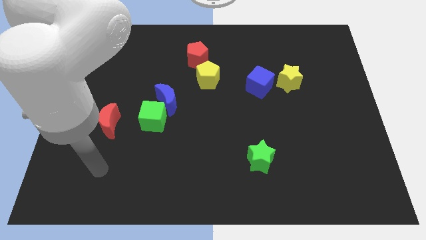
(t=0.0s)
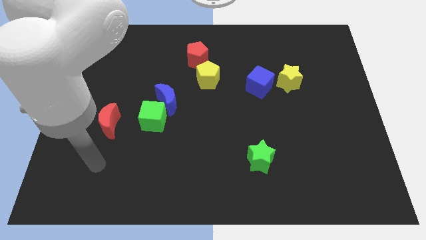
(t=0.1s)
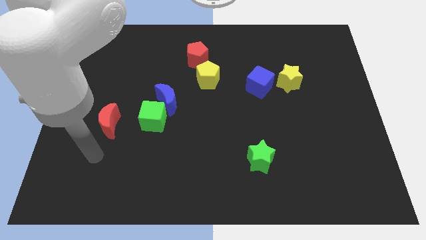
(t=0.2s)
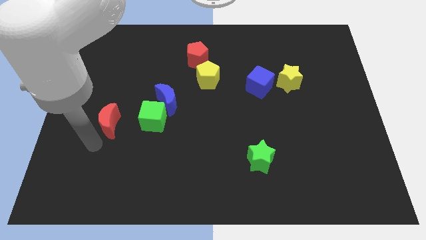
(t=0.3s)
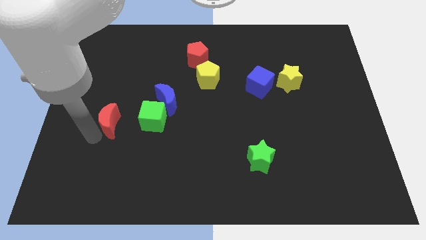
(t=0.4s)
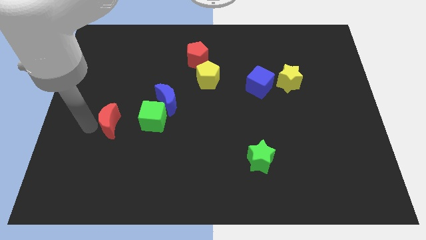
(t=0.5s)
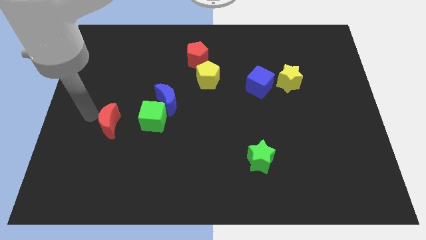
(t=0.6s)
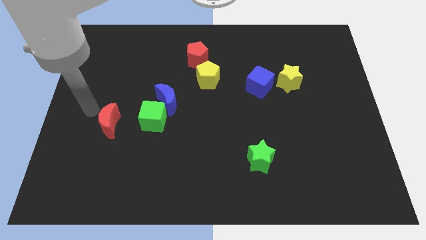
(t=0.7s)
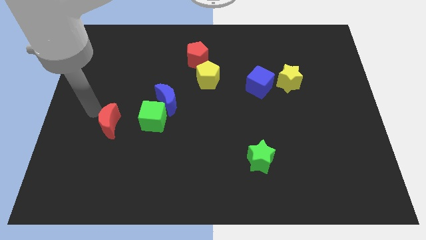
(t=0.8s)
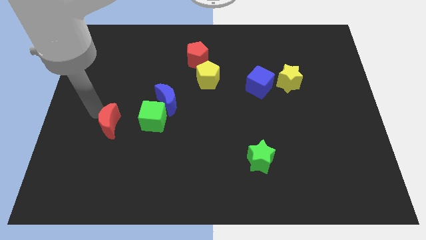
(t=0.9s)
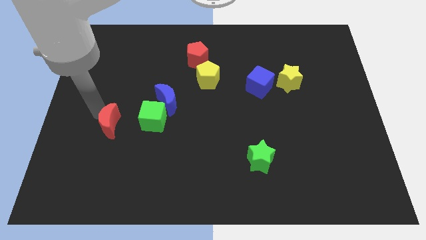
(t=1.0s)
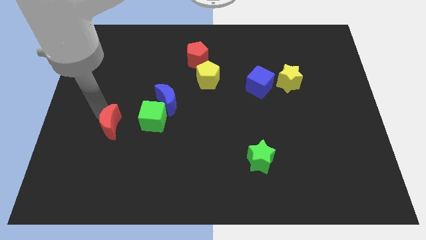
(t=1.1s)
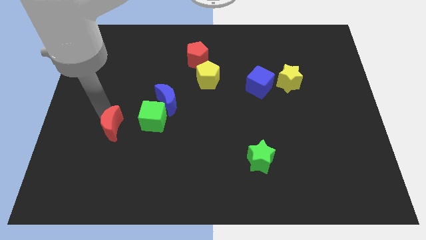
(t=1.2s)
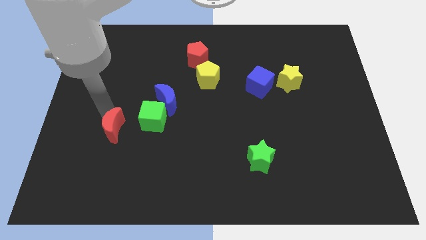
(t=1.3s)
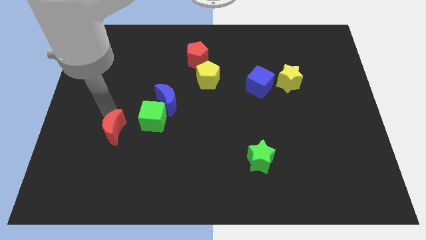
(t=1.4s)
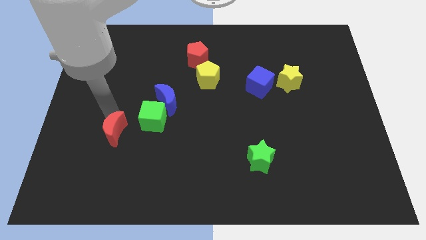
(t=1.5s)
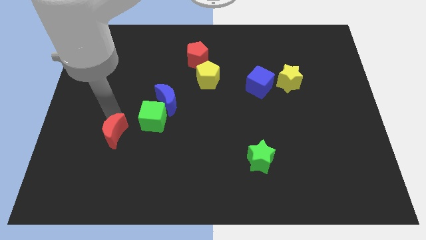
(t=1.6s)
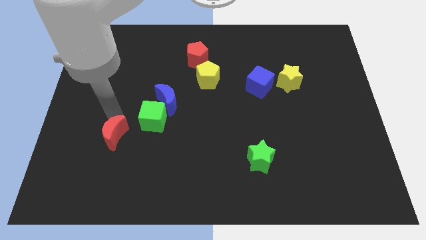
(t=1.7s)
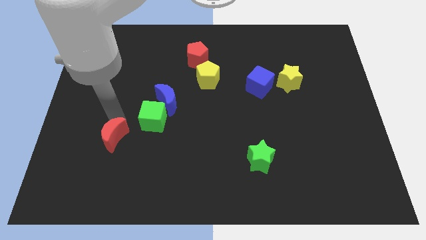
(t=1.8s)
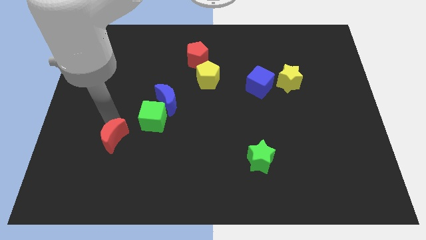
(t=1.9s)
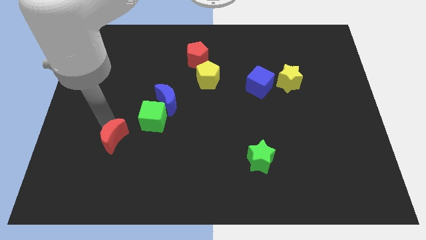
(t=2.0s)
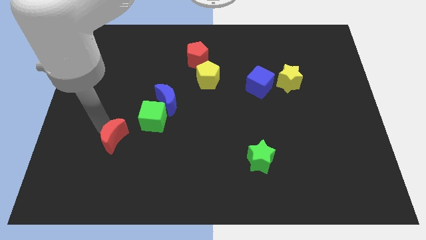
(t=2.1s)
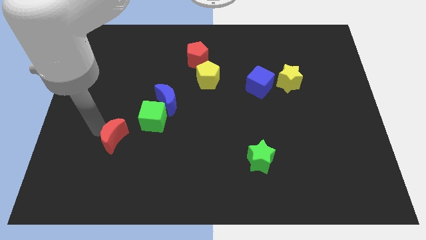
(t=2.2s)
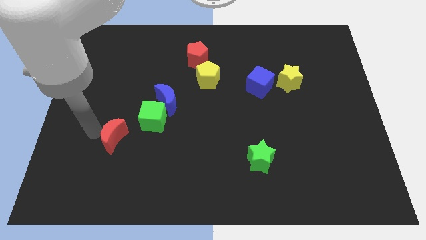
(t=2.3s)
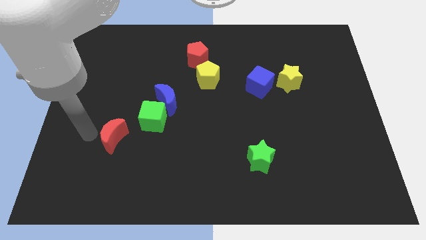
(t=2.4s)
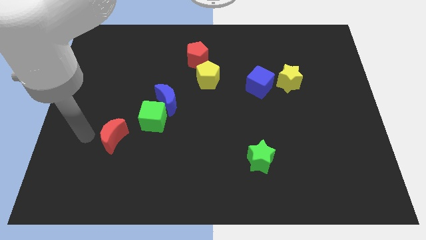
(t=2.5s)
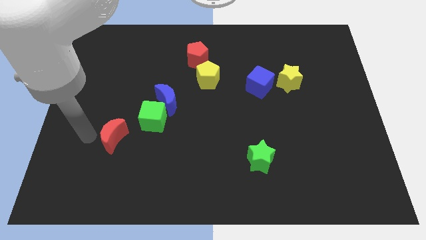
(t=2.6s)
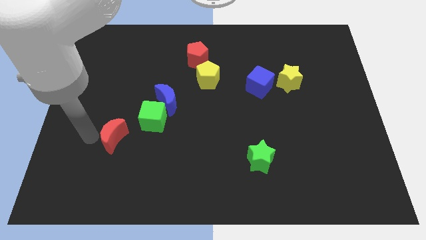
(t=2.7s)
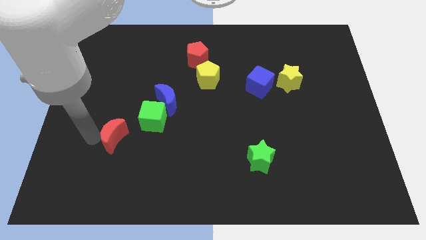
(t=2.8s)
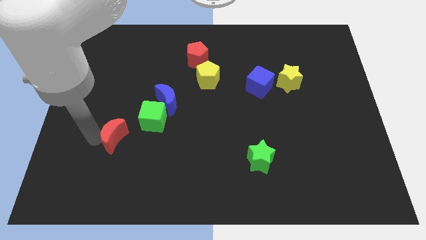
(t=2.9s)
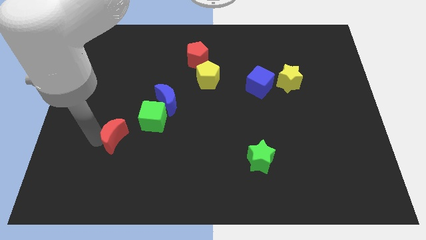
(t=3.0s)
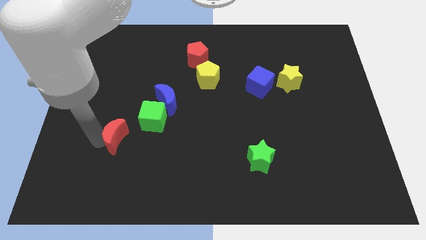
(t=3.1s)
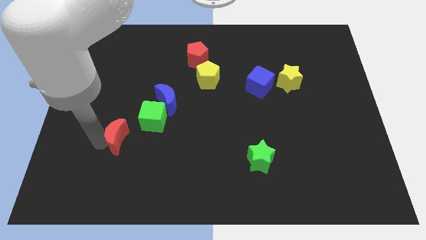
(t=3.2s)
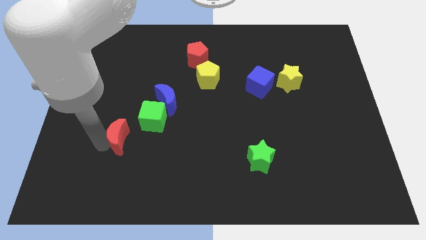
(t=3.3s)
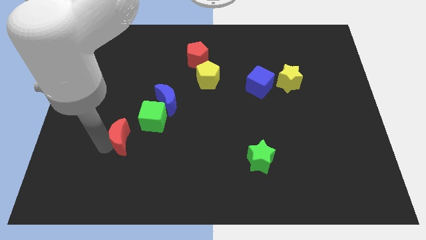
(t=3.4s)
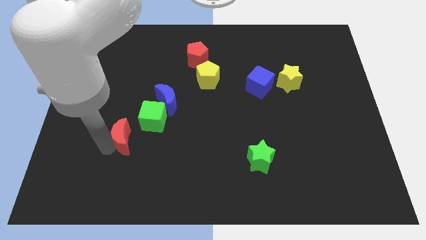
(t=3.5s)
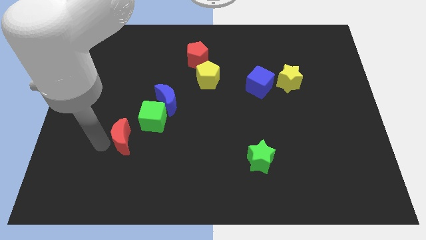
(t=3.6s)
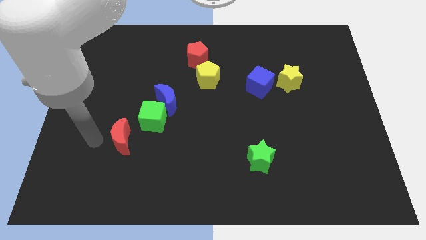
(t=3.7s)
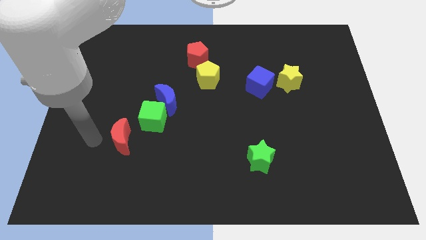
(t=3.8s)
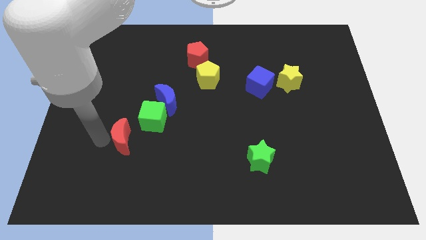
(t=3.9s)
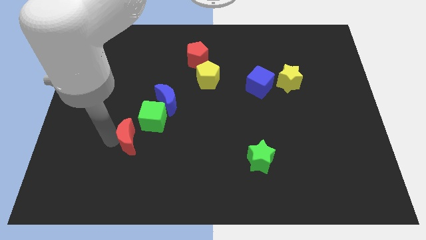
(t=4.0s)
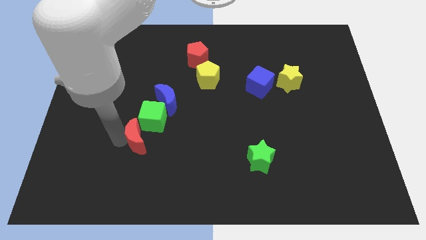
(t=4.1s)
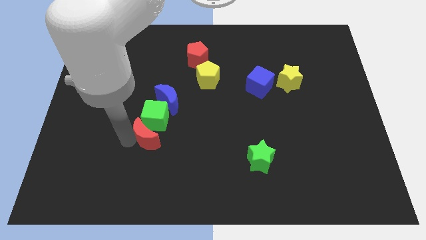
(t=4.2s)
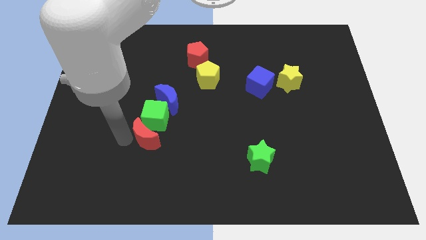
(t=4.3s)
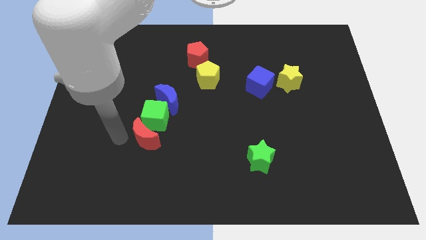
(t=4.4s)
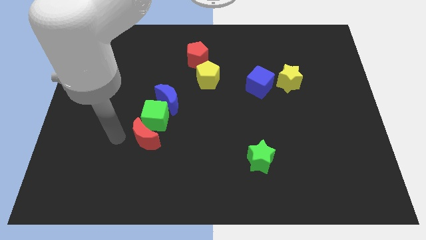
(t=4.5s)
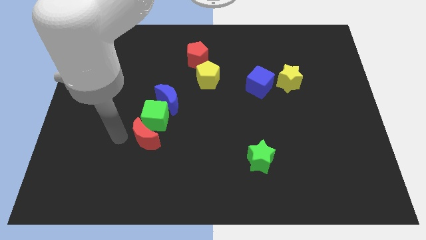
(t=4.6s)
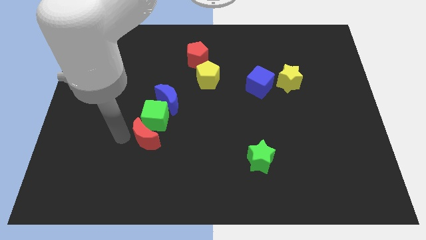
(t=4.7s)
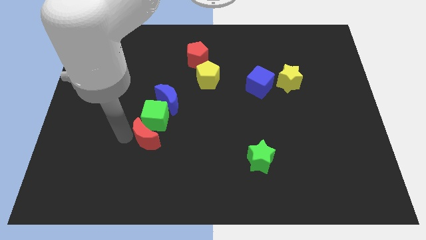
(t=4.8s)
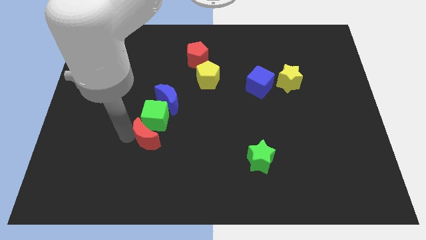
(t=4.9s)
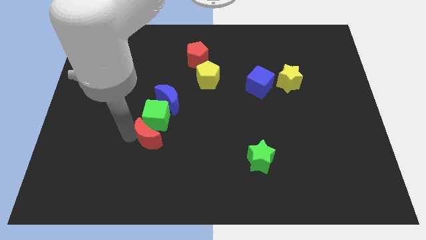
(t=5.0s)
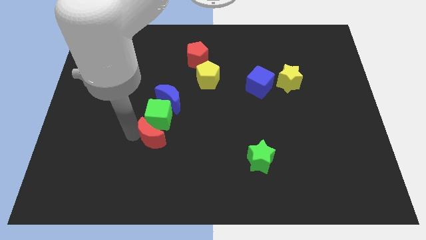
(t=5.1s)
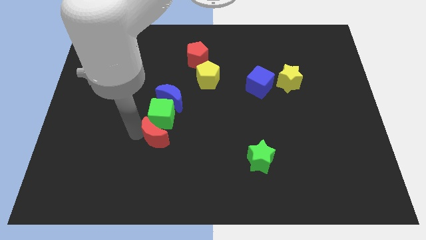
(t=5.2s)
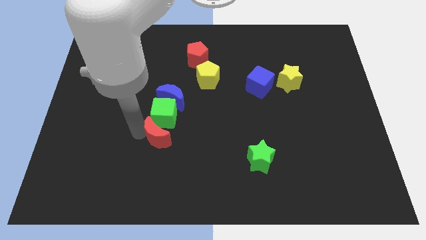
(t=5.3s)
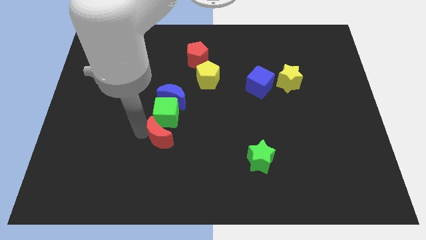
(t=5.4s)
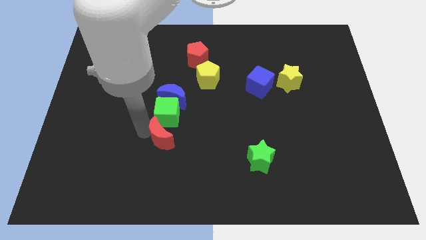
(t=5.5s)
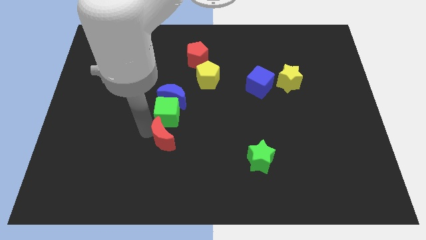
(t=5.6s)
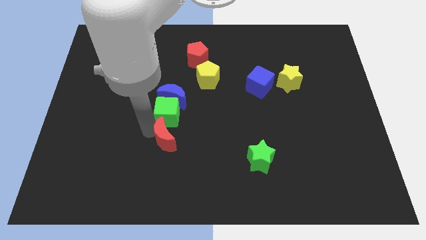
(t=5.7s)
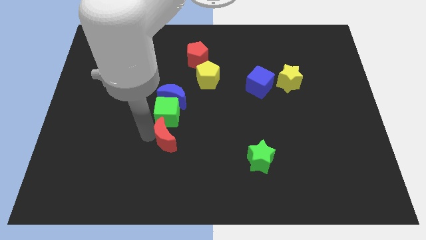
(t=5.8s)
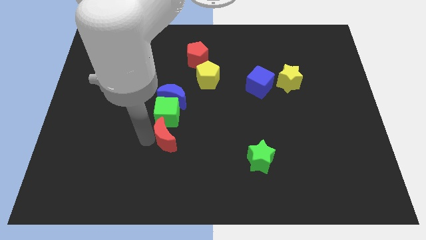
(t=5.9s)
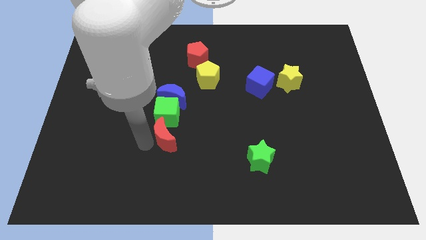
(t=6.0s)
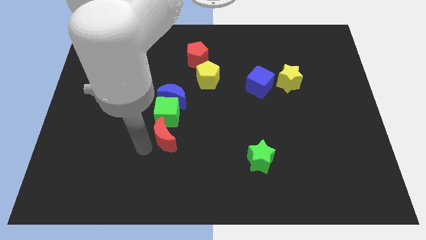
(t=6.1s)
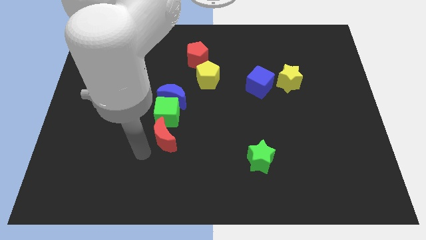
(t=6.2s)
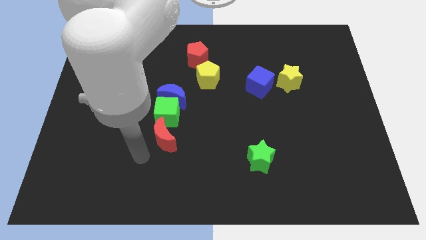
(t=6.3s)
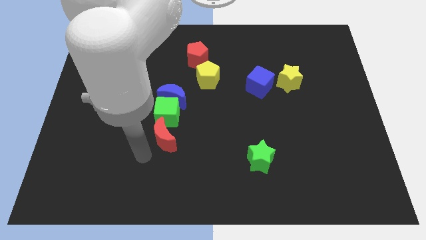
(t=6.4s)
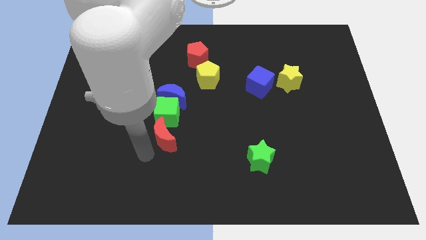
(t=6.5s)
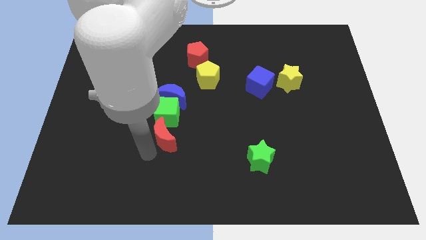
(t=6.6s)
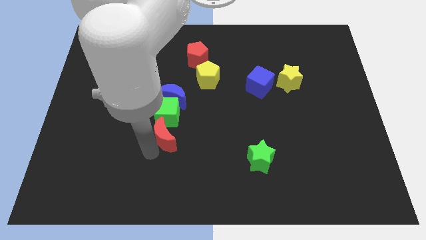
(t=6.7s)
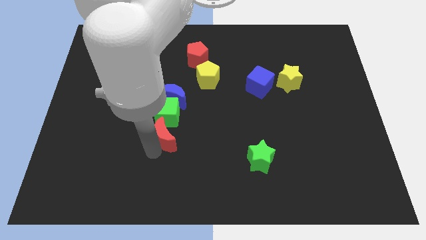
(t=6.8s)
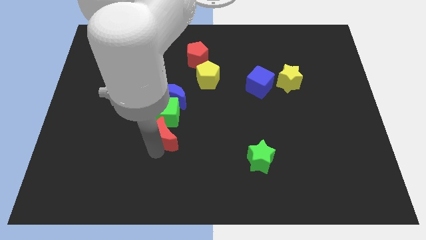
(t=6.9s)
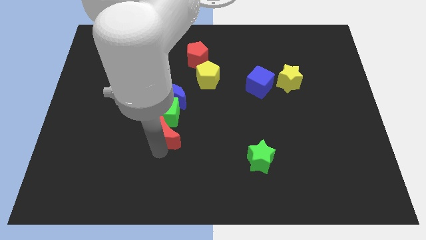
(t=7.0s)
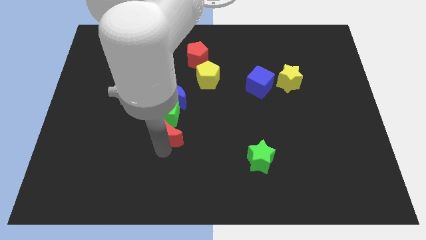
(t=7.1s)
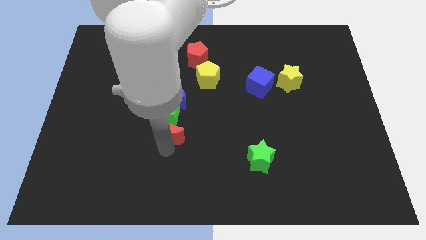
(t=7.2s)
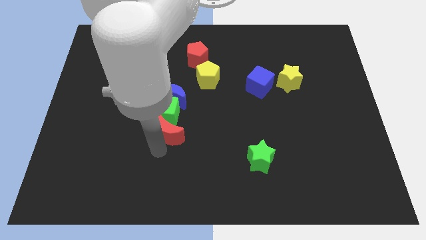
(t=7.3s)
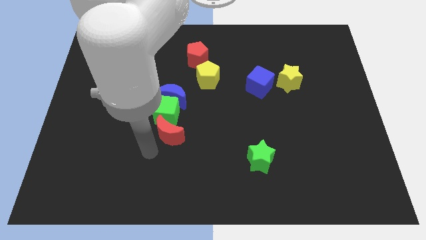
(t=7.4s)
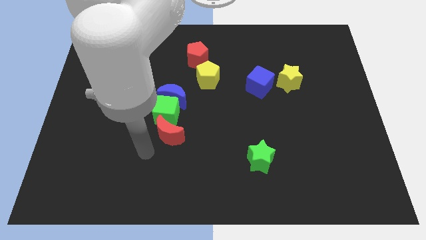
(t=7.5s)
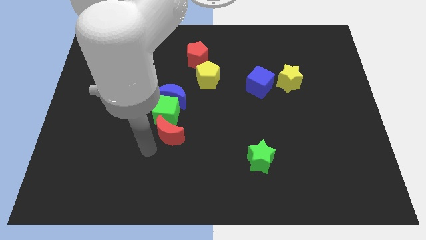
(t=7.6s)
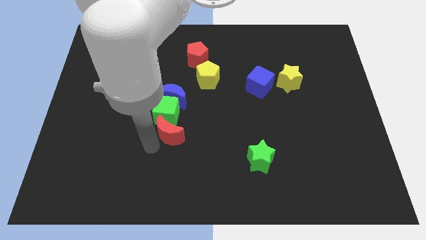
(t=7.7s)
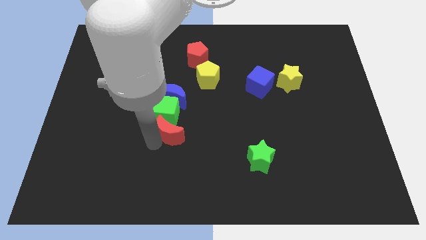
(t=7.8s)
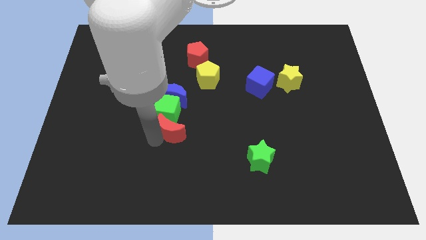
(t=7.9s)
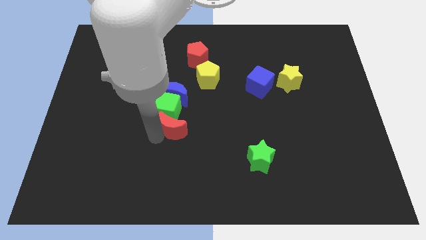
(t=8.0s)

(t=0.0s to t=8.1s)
put the red moon to the middle of the board
